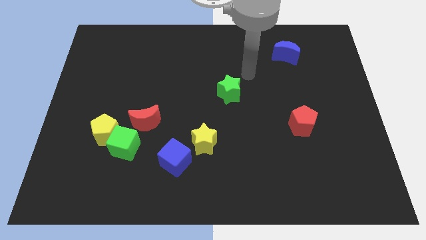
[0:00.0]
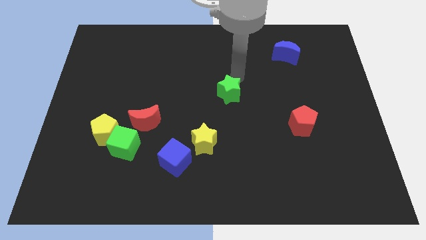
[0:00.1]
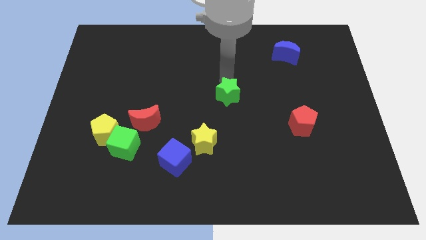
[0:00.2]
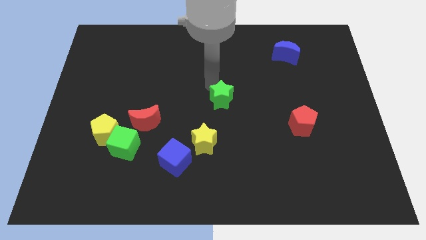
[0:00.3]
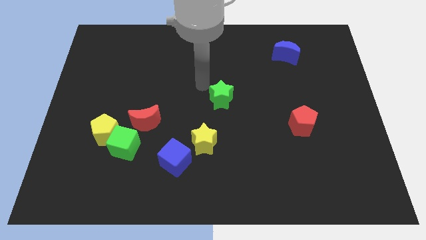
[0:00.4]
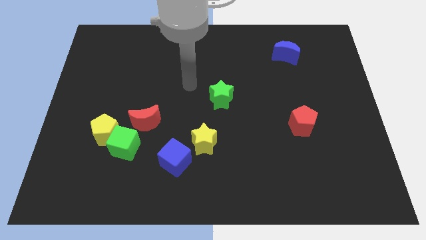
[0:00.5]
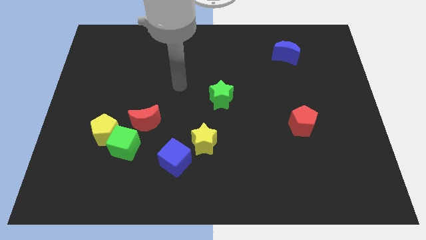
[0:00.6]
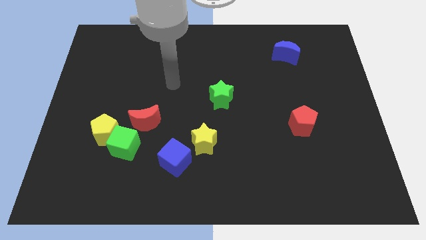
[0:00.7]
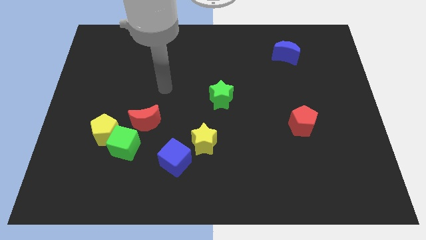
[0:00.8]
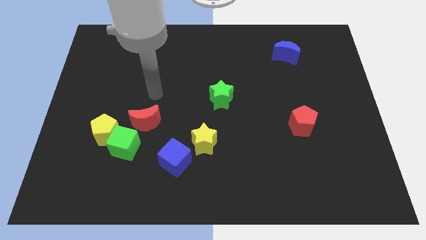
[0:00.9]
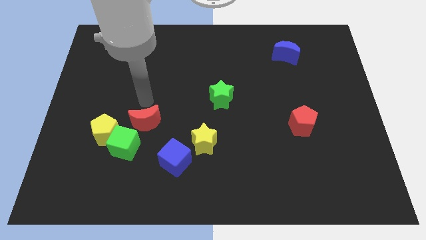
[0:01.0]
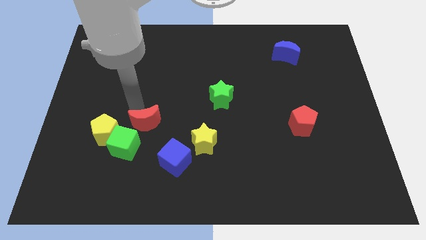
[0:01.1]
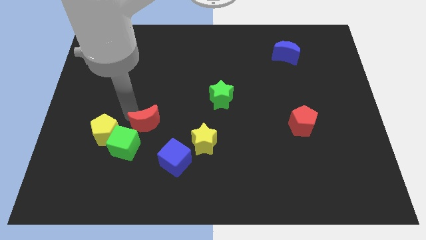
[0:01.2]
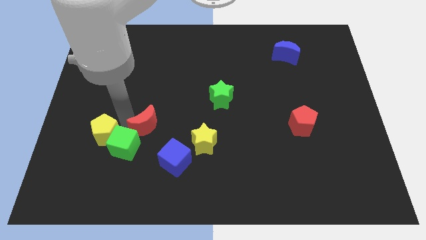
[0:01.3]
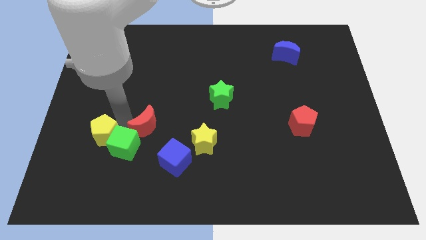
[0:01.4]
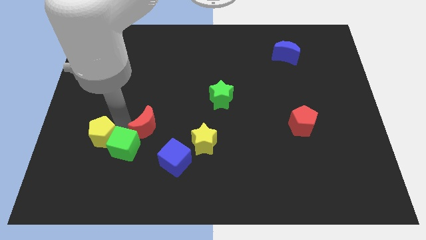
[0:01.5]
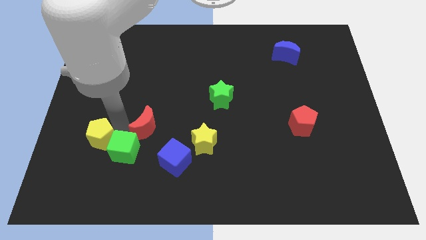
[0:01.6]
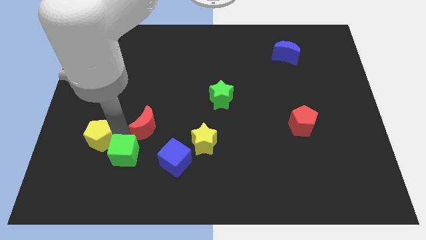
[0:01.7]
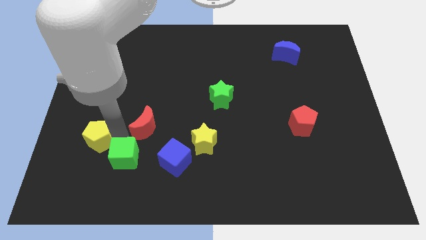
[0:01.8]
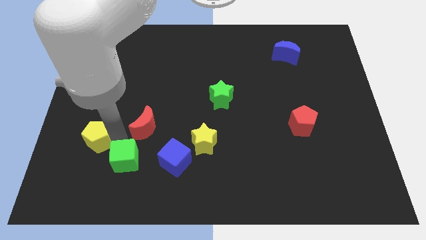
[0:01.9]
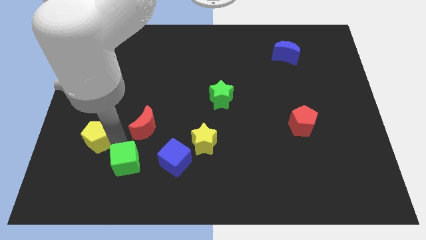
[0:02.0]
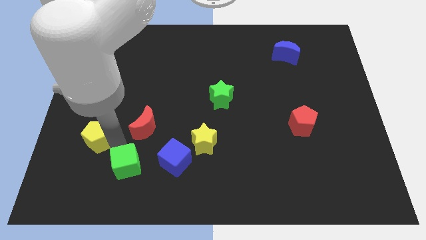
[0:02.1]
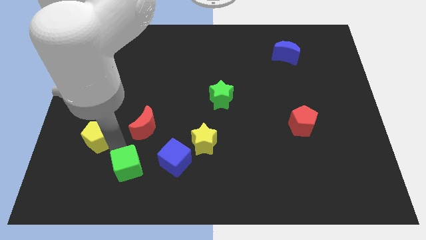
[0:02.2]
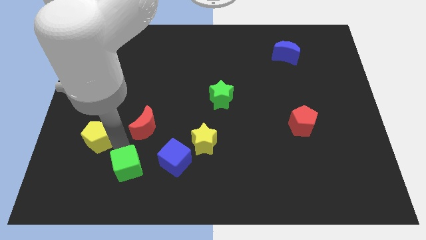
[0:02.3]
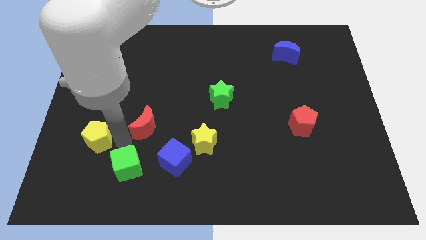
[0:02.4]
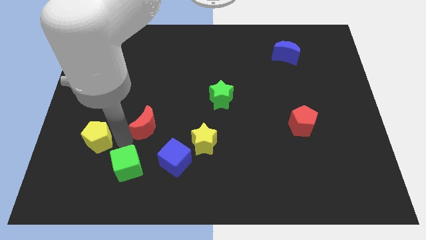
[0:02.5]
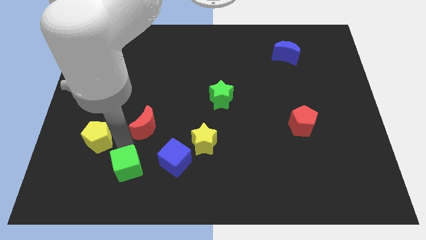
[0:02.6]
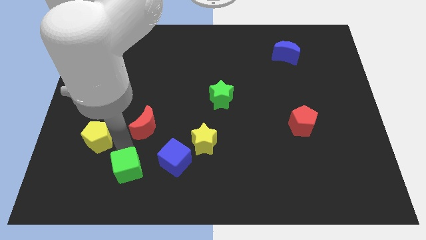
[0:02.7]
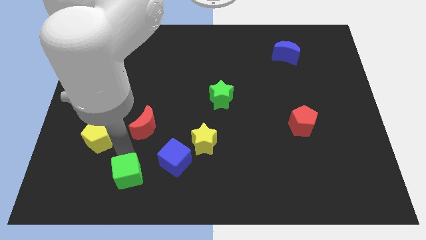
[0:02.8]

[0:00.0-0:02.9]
pull the green cube apart from the yellow pentagon and red moon

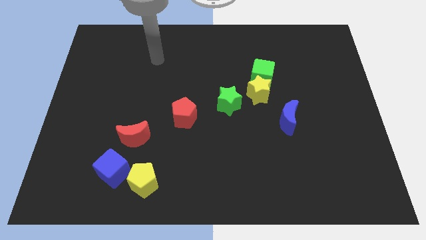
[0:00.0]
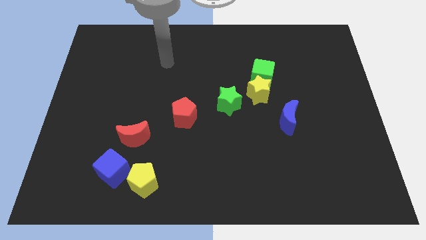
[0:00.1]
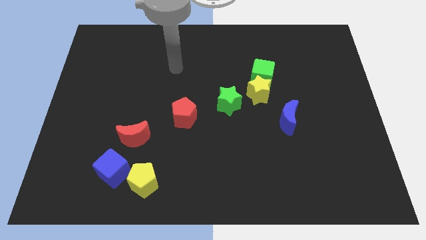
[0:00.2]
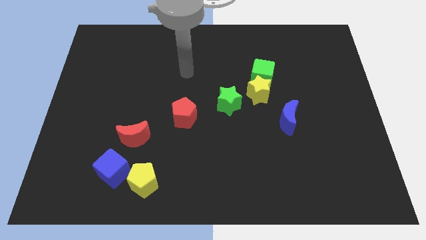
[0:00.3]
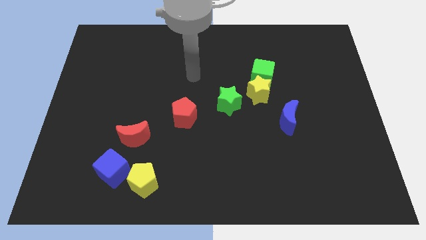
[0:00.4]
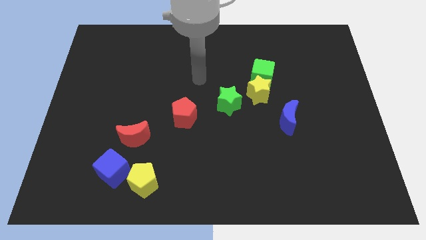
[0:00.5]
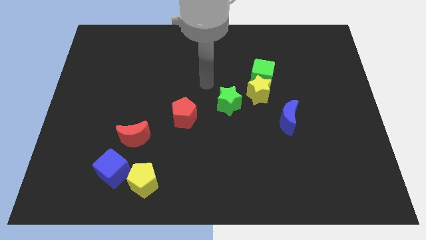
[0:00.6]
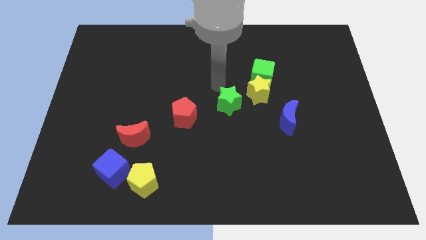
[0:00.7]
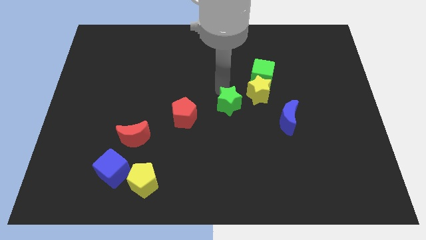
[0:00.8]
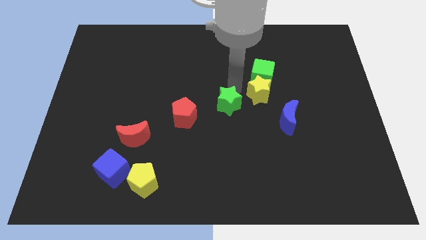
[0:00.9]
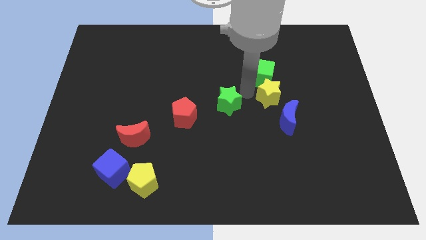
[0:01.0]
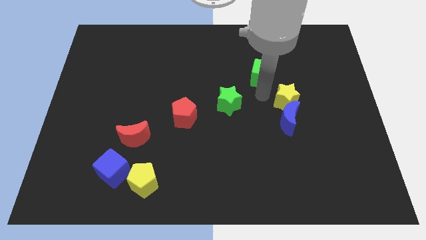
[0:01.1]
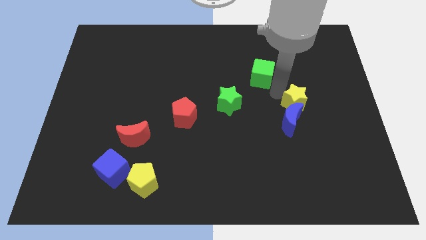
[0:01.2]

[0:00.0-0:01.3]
move the green cube away from the yellow star

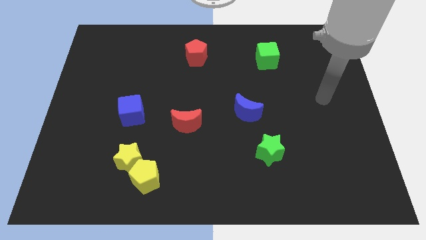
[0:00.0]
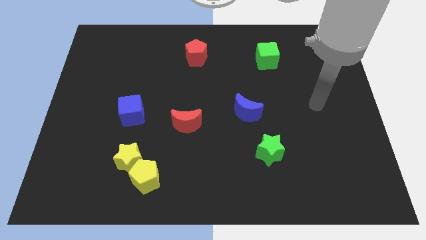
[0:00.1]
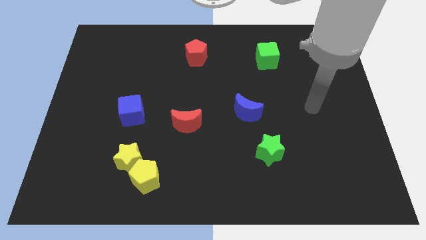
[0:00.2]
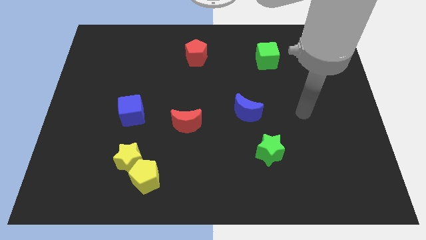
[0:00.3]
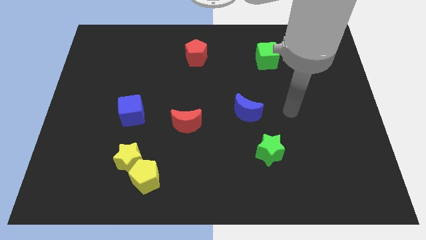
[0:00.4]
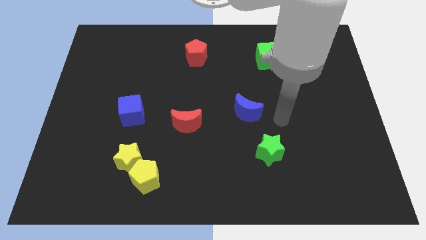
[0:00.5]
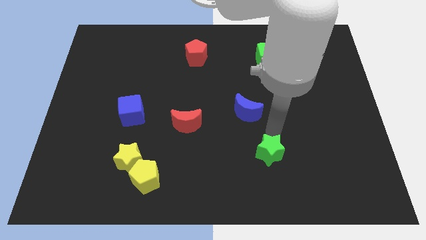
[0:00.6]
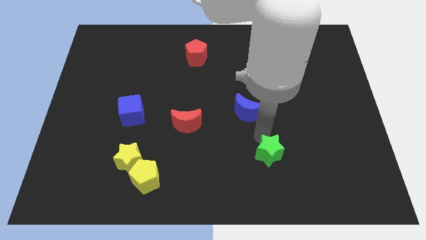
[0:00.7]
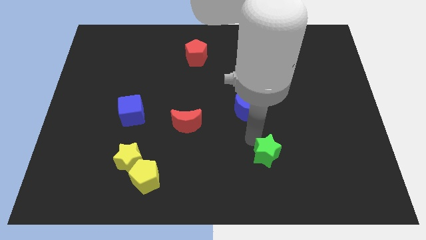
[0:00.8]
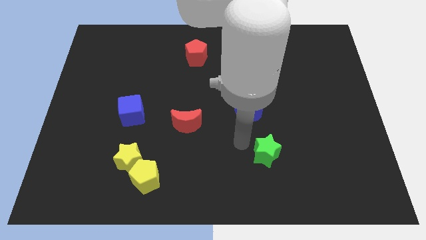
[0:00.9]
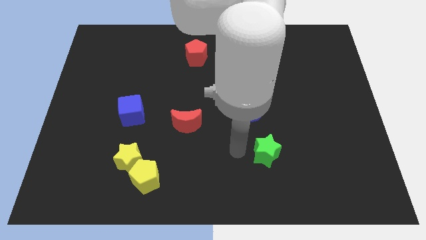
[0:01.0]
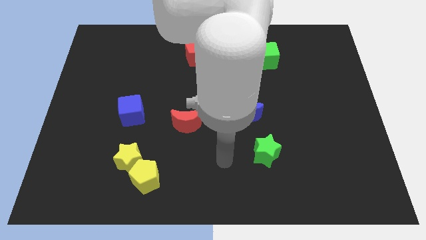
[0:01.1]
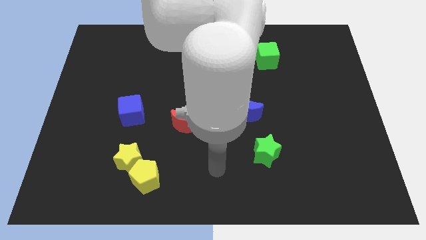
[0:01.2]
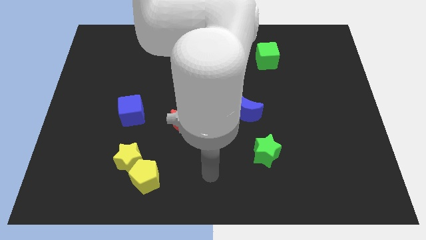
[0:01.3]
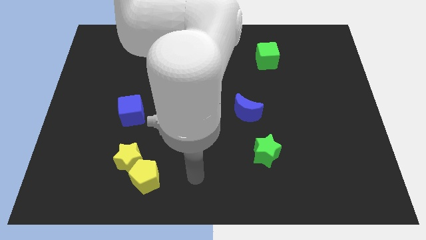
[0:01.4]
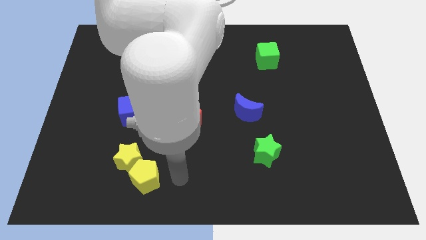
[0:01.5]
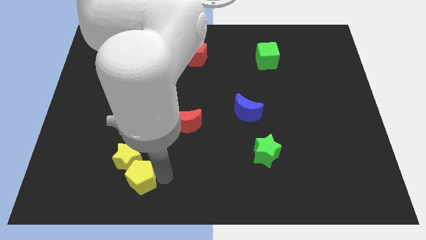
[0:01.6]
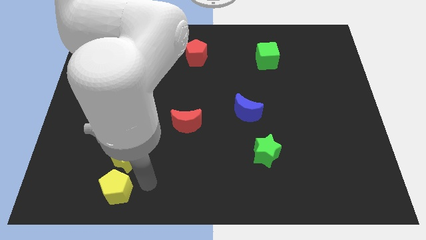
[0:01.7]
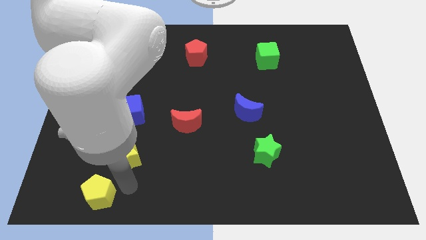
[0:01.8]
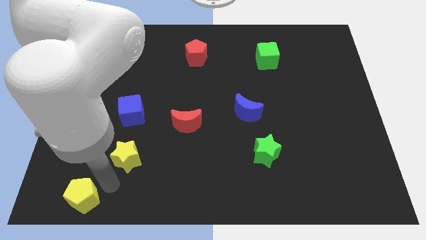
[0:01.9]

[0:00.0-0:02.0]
pull the yellow star apart from the yellow pentagon

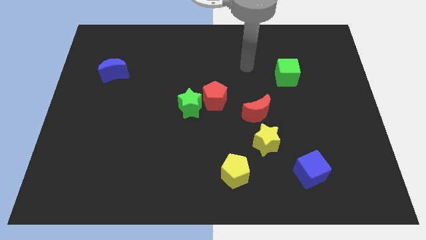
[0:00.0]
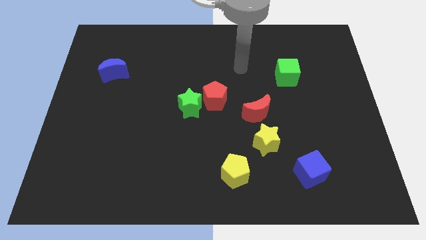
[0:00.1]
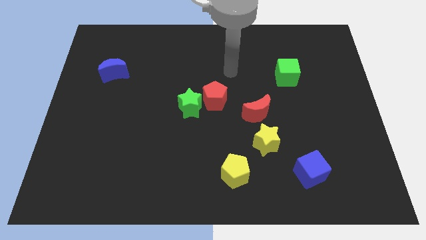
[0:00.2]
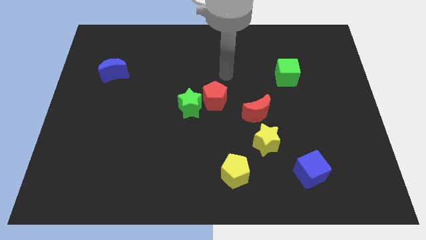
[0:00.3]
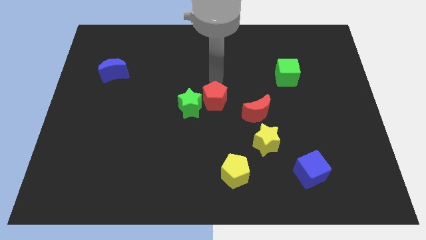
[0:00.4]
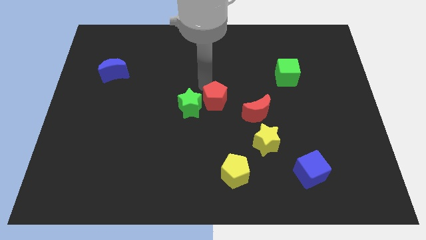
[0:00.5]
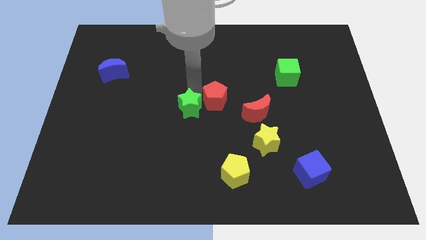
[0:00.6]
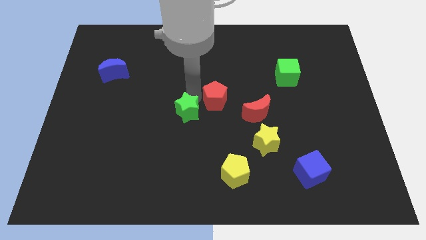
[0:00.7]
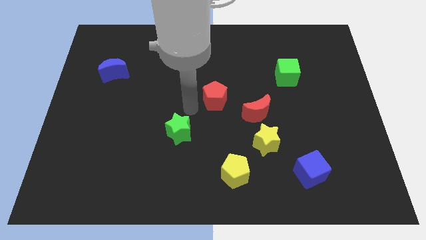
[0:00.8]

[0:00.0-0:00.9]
separate the red pentagon from the green star

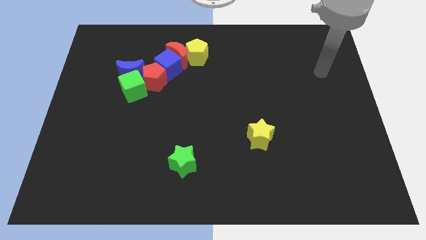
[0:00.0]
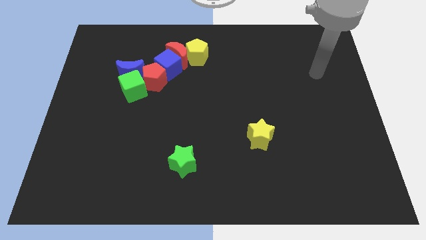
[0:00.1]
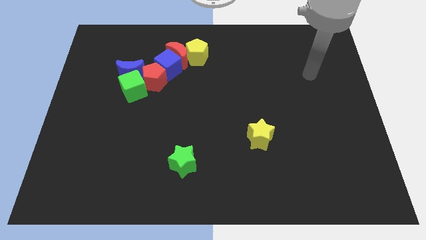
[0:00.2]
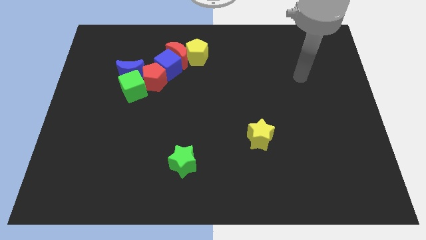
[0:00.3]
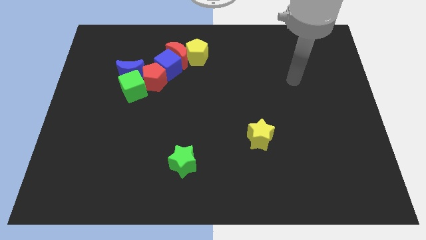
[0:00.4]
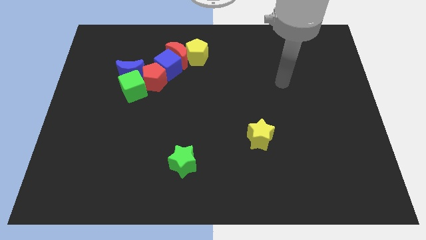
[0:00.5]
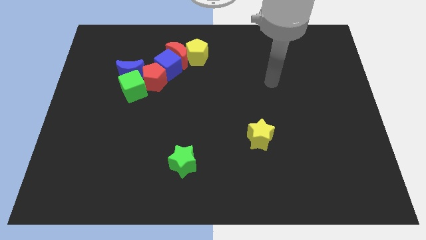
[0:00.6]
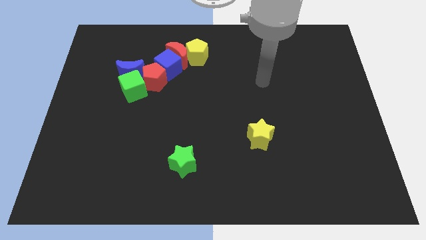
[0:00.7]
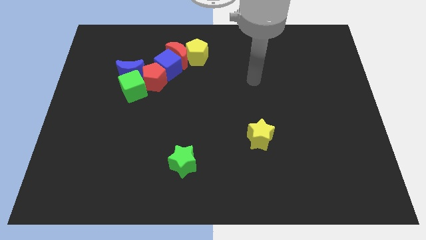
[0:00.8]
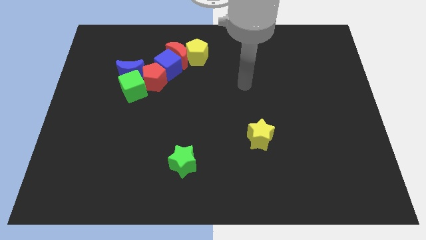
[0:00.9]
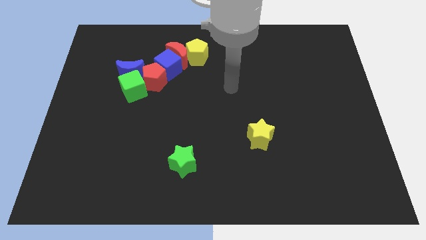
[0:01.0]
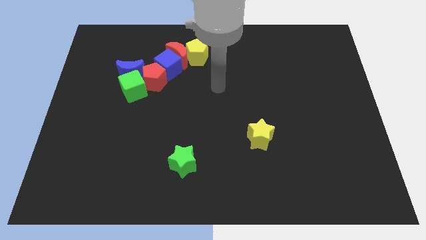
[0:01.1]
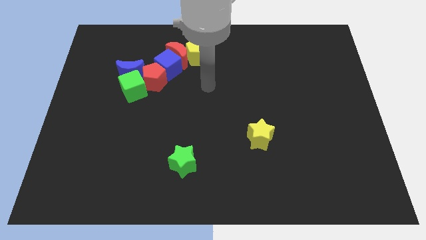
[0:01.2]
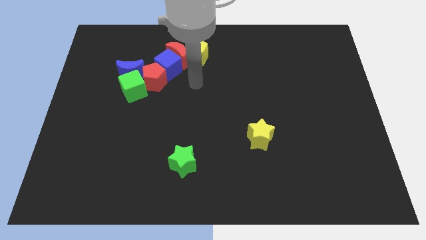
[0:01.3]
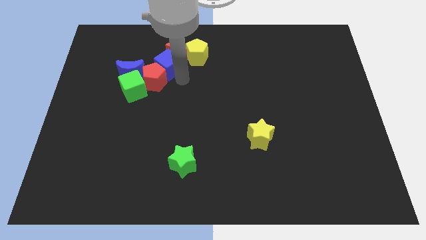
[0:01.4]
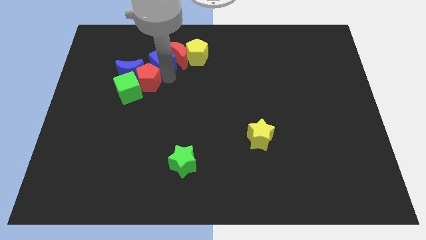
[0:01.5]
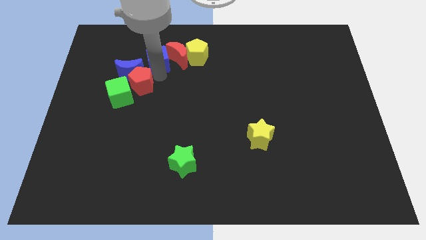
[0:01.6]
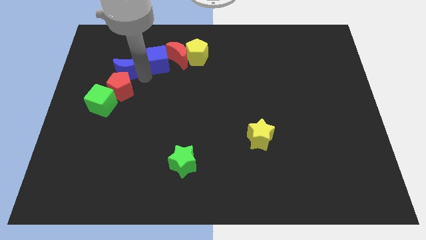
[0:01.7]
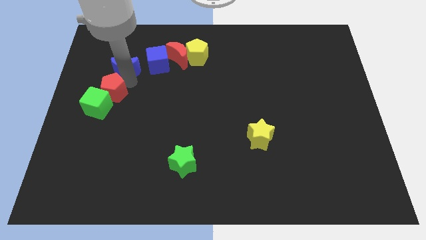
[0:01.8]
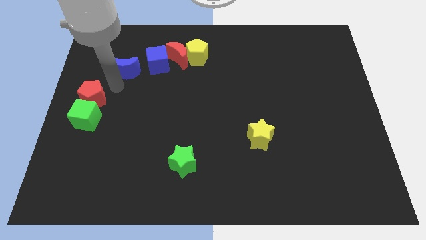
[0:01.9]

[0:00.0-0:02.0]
pull the green cube apart from the blue moon and red pentagon

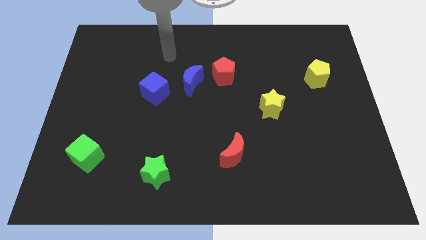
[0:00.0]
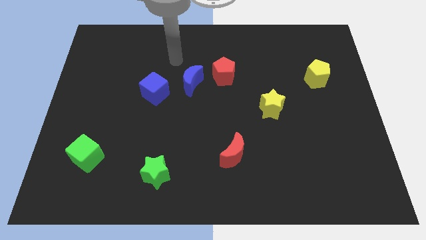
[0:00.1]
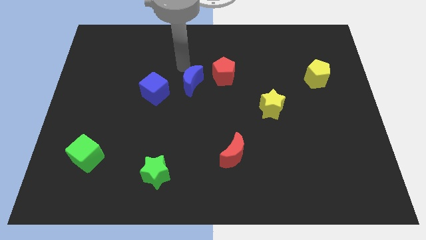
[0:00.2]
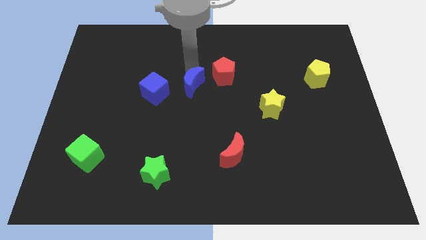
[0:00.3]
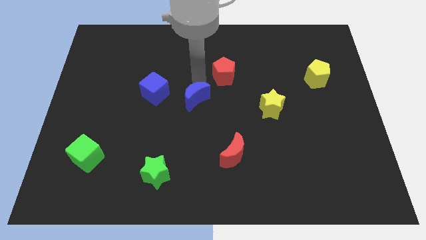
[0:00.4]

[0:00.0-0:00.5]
move the red pentagon away from the blue moon
